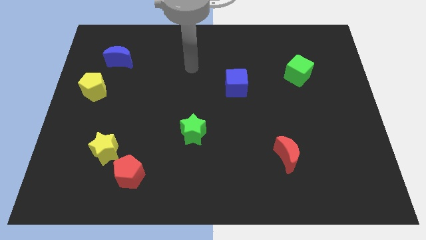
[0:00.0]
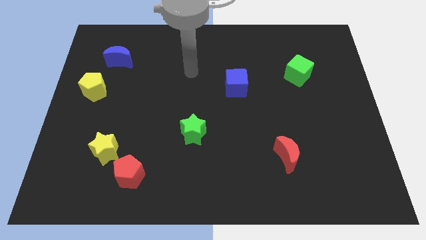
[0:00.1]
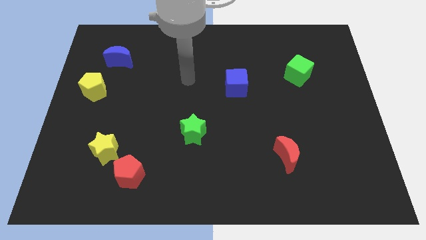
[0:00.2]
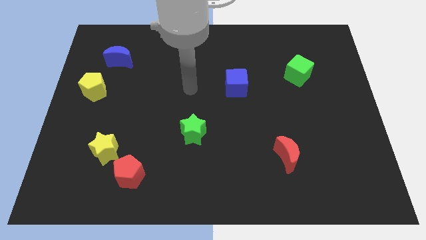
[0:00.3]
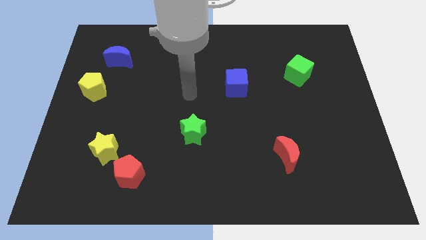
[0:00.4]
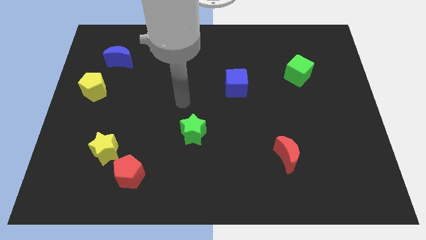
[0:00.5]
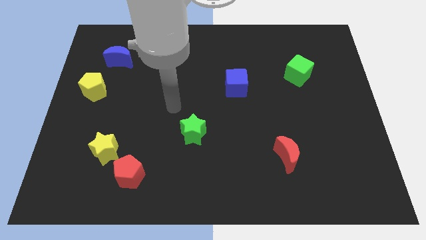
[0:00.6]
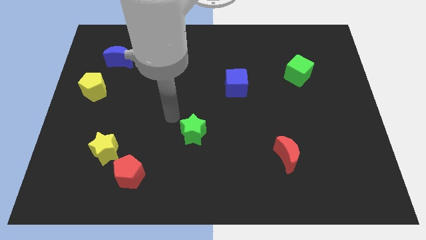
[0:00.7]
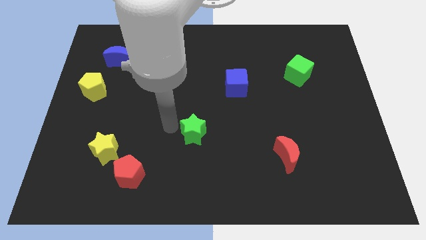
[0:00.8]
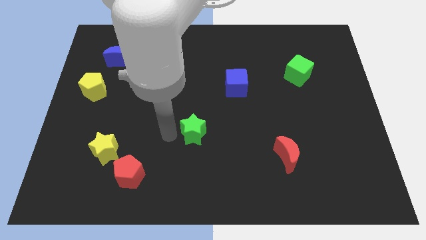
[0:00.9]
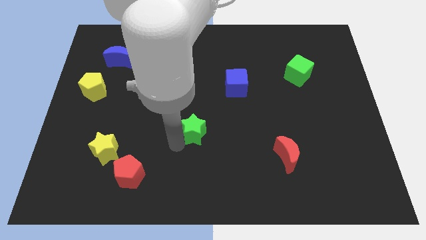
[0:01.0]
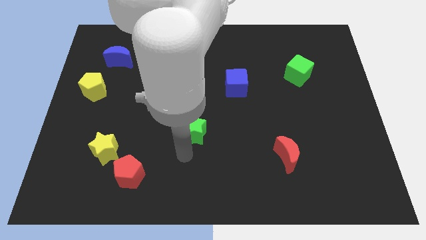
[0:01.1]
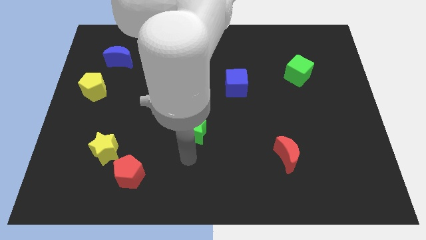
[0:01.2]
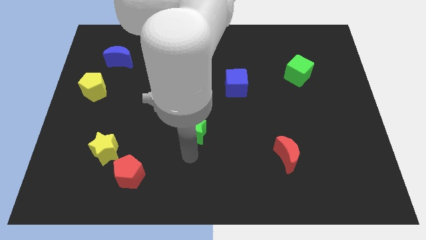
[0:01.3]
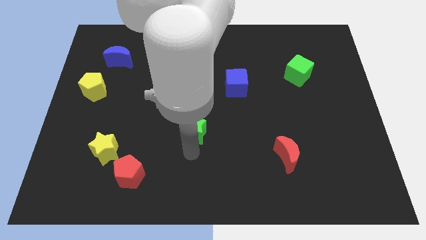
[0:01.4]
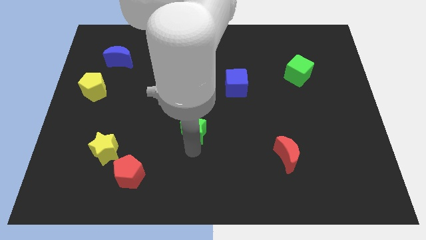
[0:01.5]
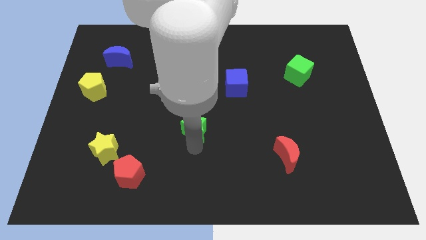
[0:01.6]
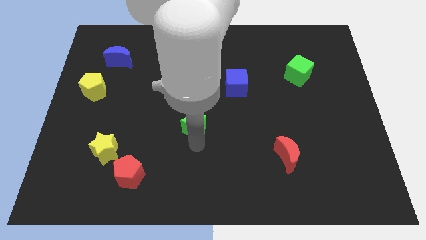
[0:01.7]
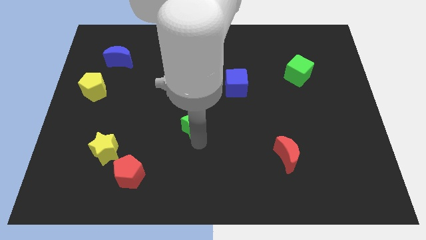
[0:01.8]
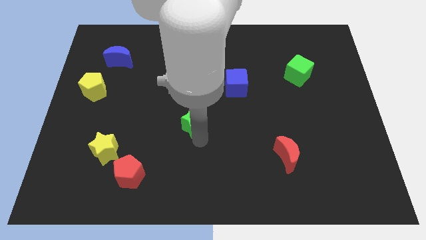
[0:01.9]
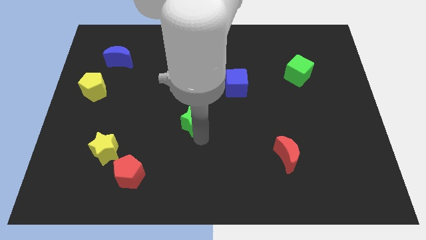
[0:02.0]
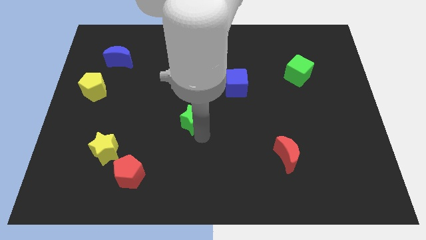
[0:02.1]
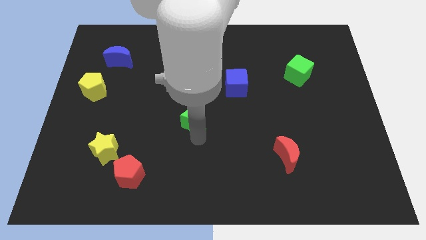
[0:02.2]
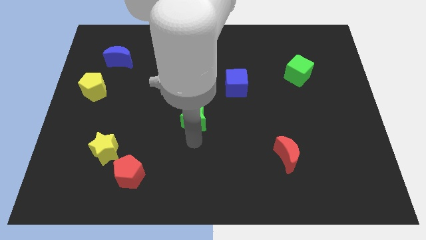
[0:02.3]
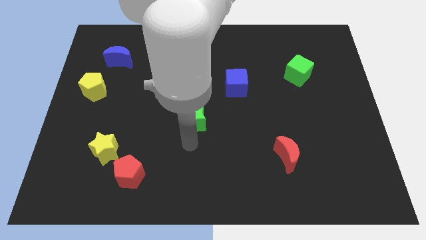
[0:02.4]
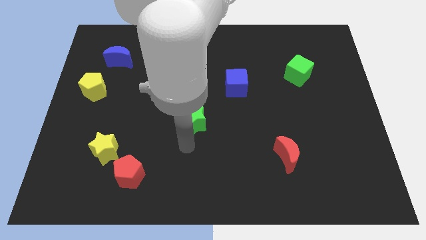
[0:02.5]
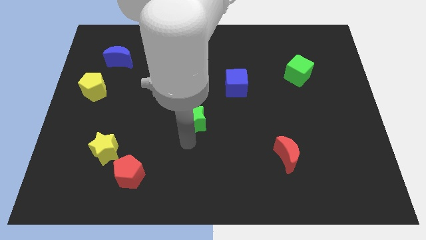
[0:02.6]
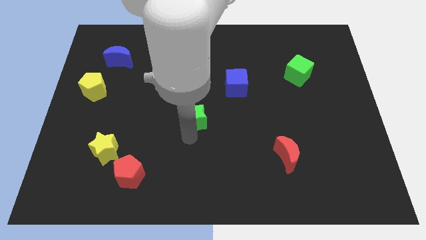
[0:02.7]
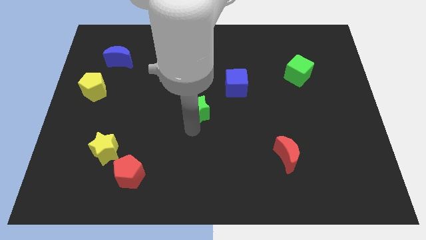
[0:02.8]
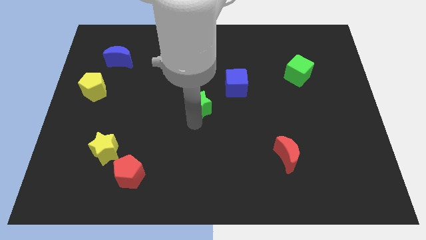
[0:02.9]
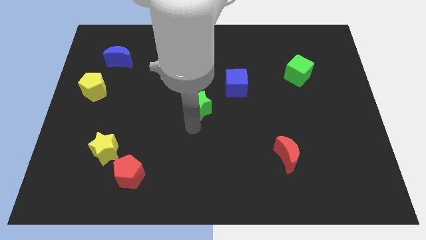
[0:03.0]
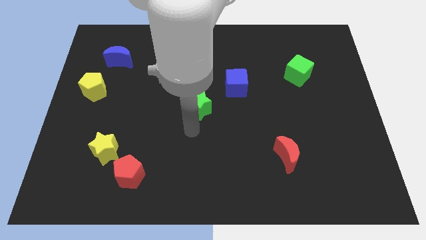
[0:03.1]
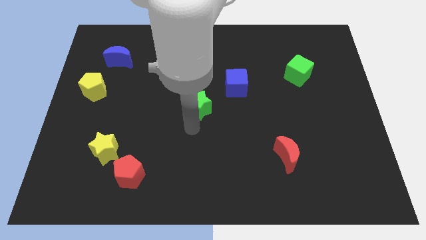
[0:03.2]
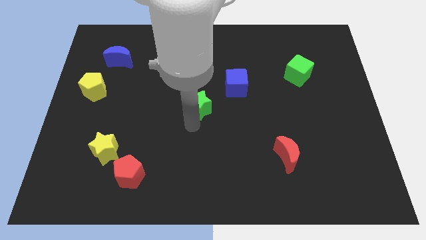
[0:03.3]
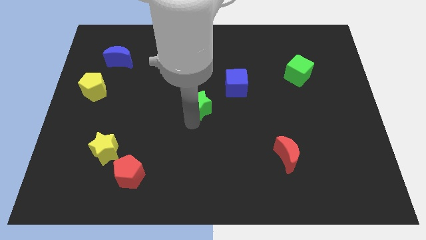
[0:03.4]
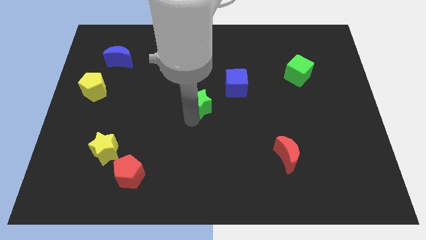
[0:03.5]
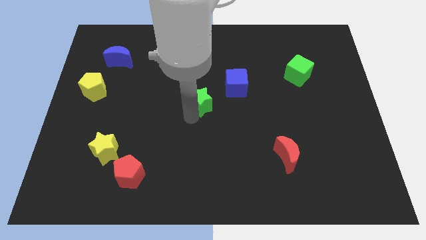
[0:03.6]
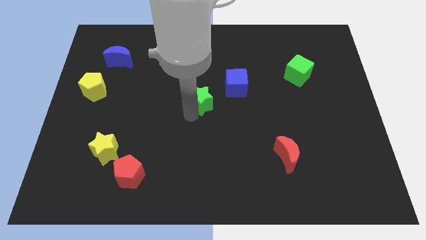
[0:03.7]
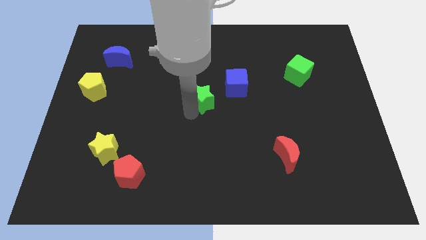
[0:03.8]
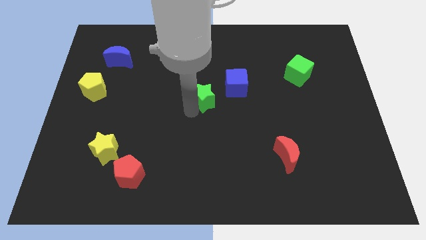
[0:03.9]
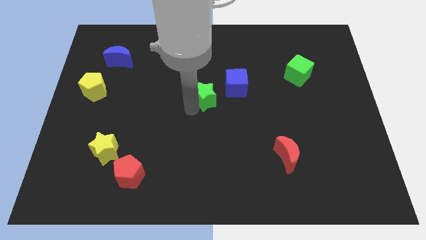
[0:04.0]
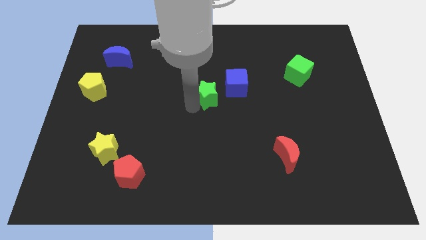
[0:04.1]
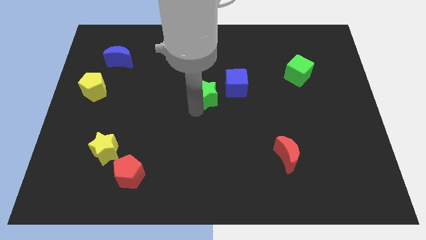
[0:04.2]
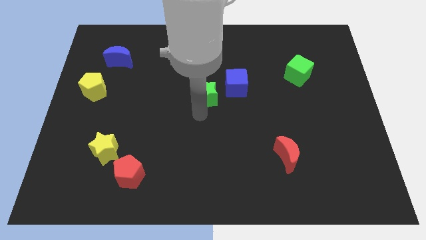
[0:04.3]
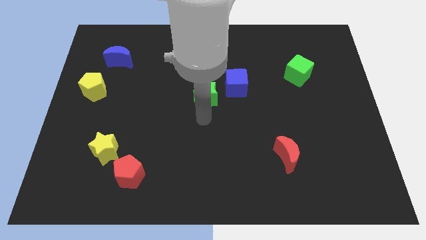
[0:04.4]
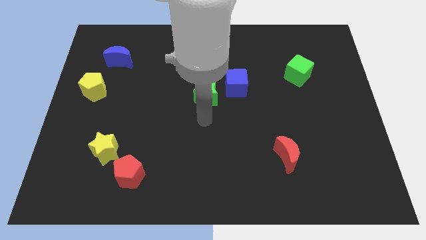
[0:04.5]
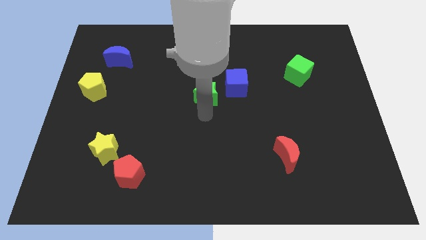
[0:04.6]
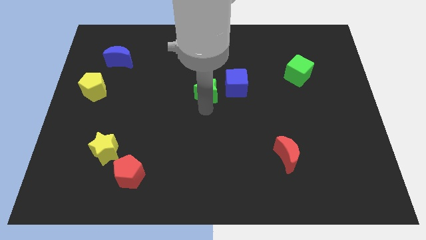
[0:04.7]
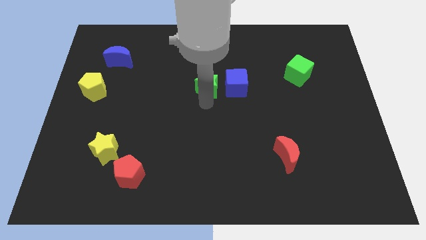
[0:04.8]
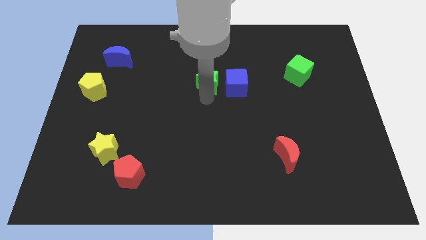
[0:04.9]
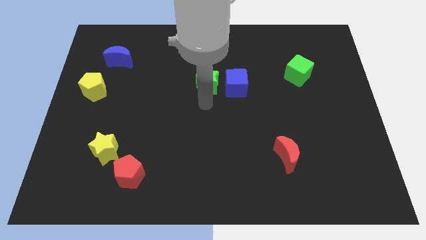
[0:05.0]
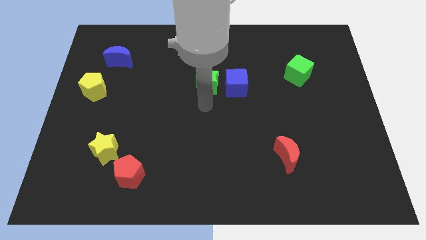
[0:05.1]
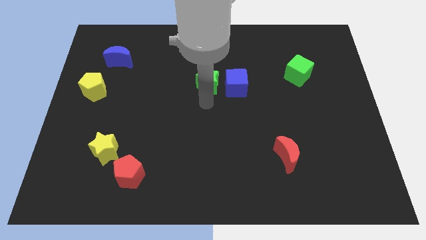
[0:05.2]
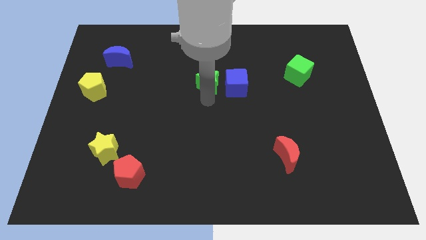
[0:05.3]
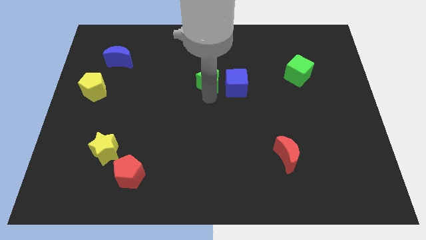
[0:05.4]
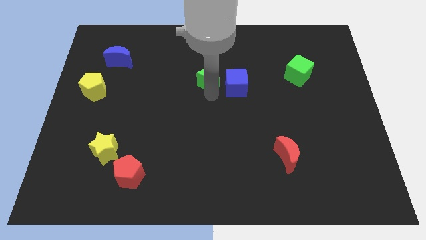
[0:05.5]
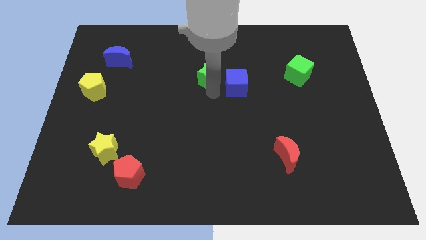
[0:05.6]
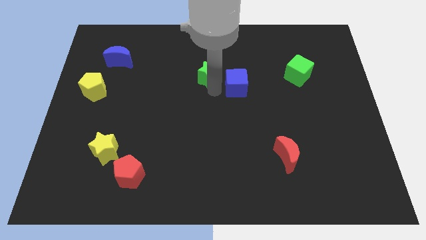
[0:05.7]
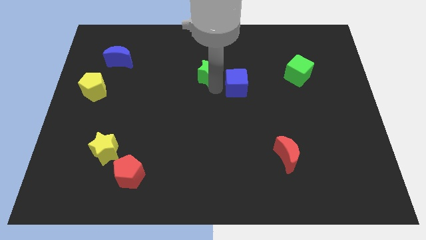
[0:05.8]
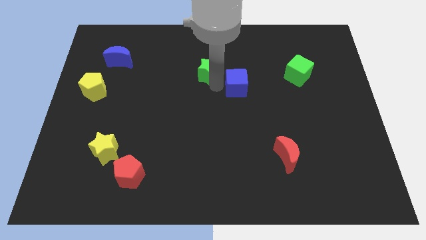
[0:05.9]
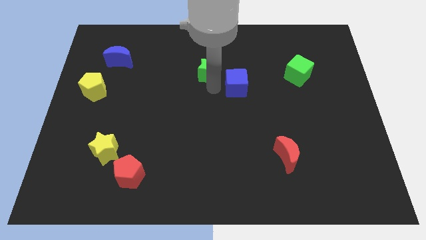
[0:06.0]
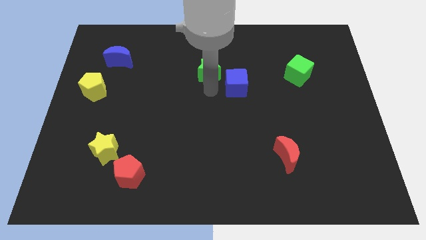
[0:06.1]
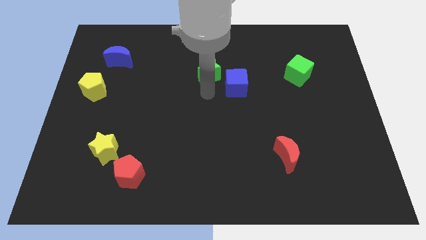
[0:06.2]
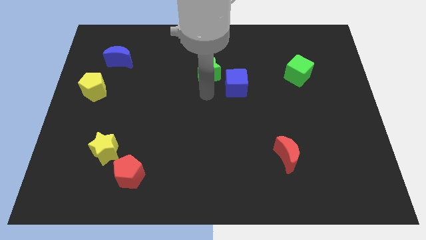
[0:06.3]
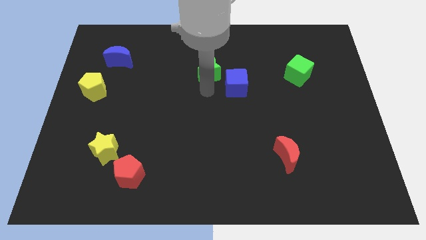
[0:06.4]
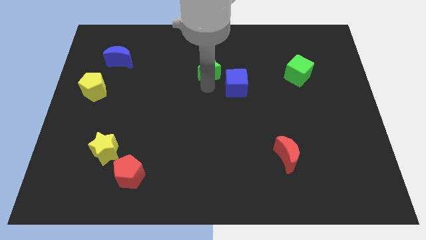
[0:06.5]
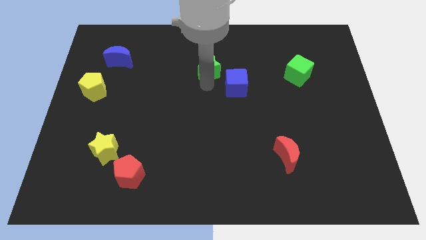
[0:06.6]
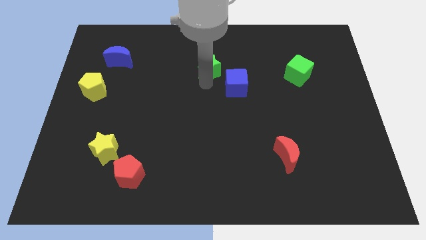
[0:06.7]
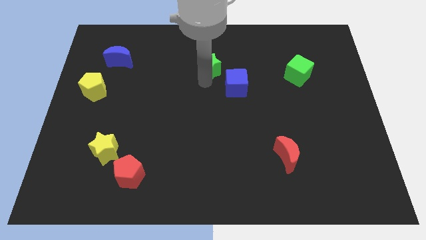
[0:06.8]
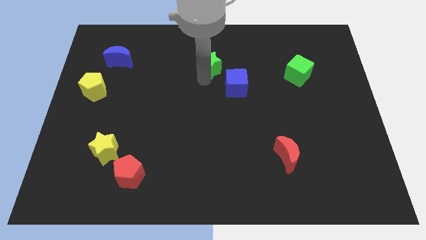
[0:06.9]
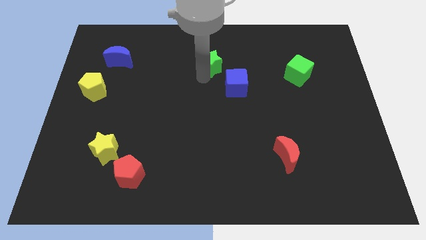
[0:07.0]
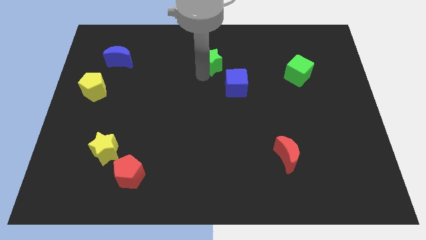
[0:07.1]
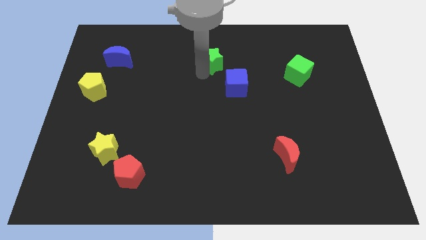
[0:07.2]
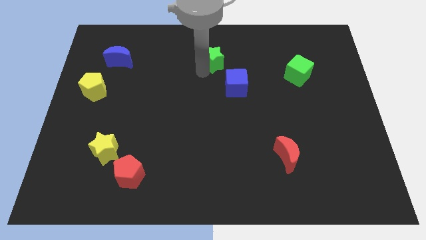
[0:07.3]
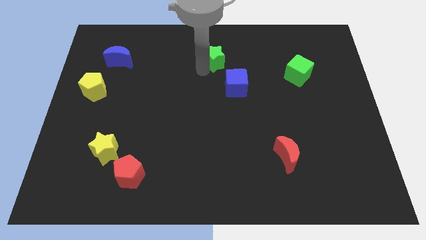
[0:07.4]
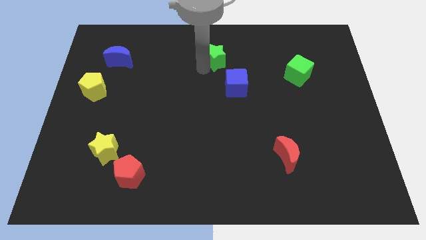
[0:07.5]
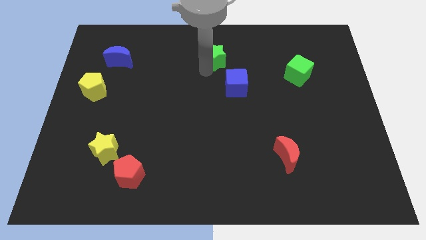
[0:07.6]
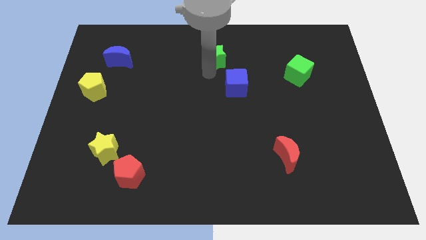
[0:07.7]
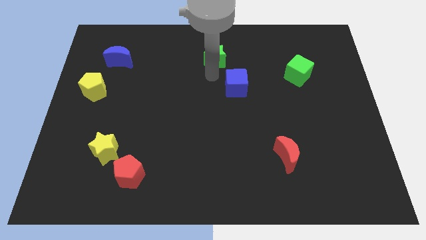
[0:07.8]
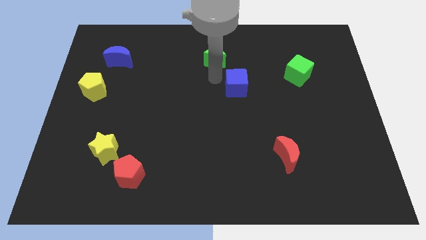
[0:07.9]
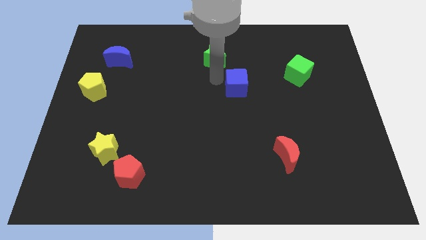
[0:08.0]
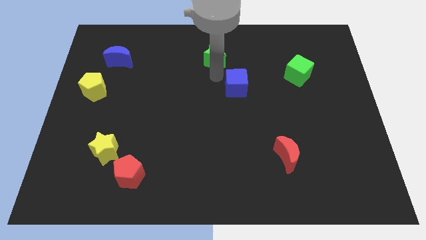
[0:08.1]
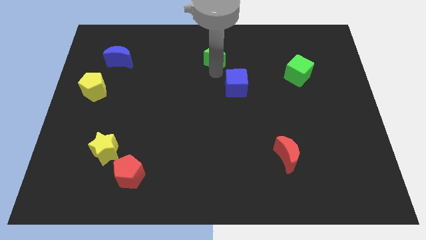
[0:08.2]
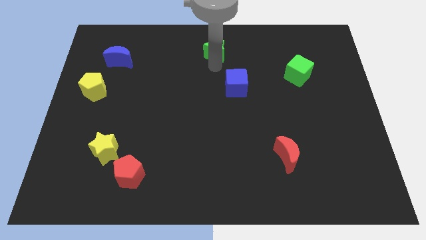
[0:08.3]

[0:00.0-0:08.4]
push the green star to the towards your base
